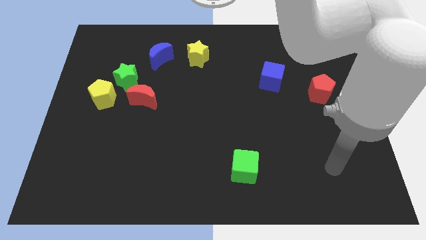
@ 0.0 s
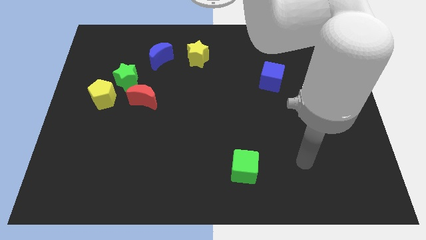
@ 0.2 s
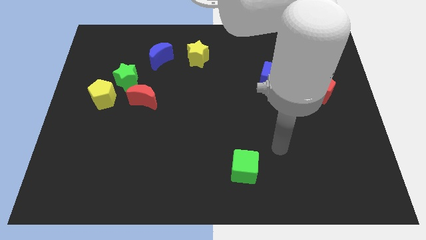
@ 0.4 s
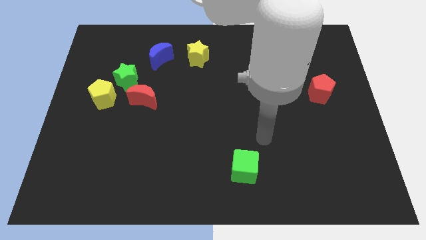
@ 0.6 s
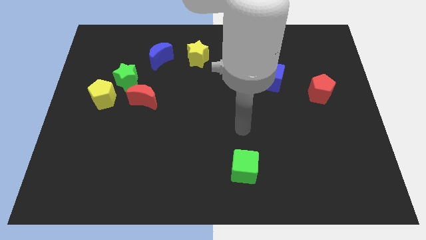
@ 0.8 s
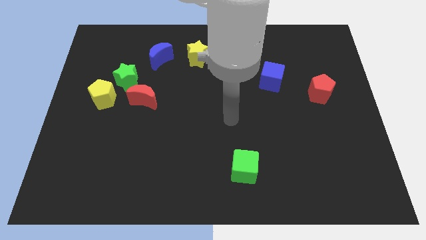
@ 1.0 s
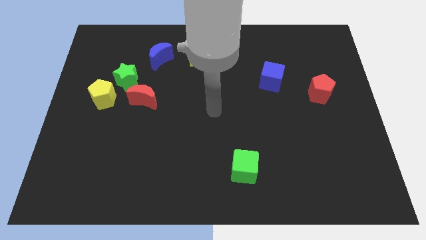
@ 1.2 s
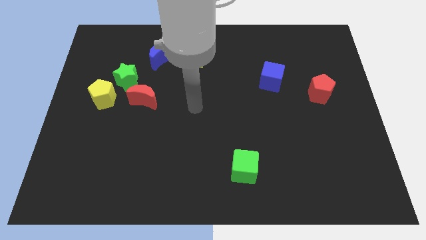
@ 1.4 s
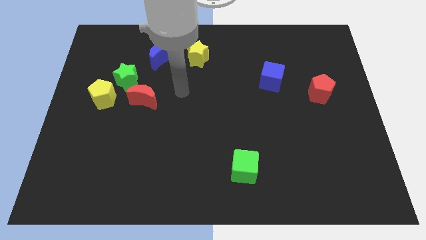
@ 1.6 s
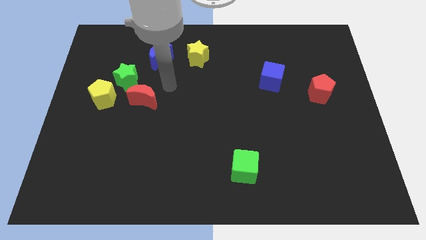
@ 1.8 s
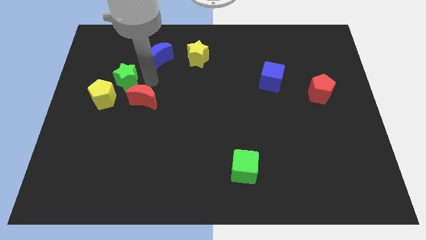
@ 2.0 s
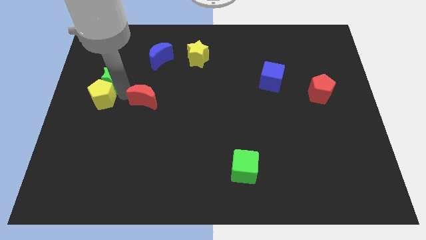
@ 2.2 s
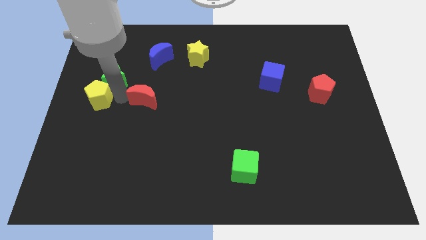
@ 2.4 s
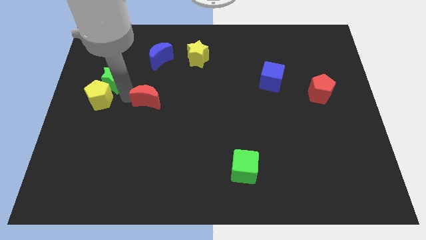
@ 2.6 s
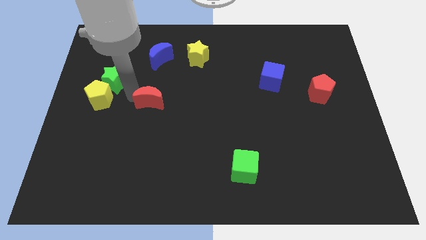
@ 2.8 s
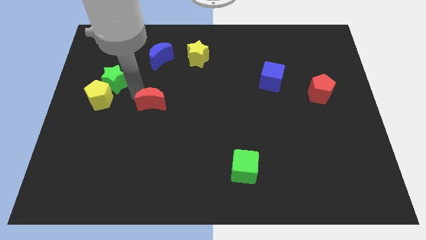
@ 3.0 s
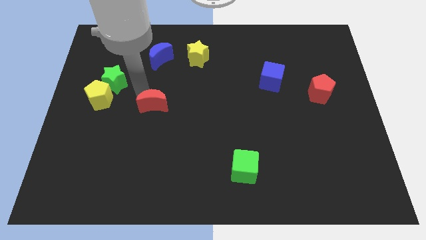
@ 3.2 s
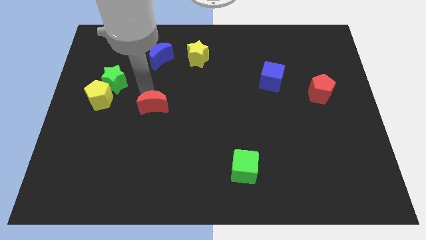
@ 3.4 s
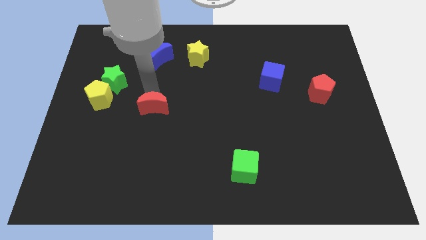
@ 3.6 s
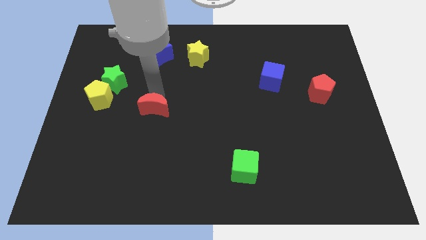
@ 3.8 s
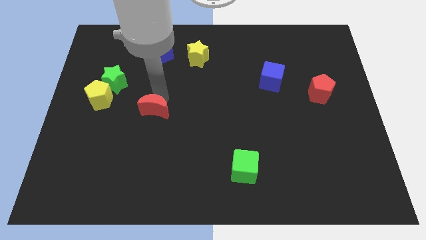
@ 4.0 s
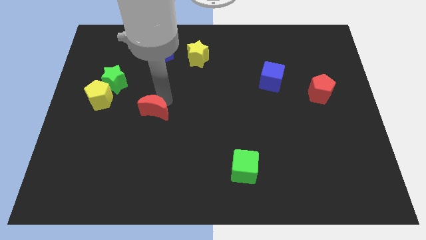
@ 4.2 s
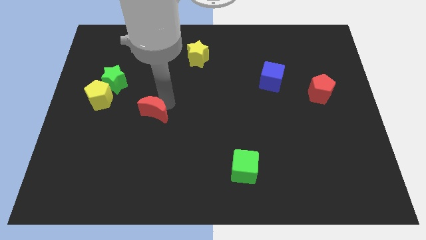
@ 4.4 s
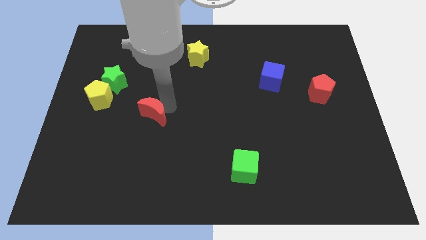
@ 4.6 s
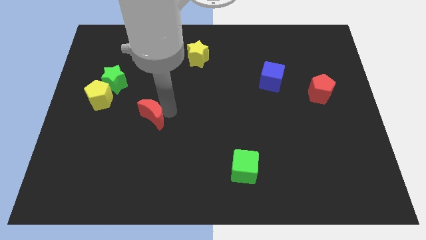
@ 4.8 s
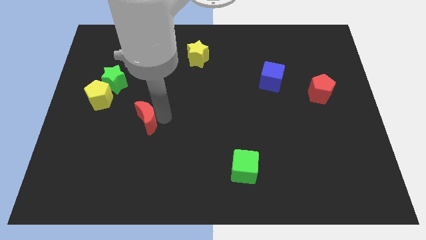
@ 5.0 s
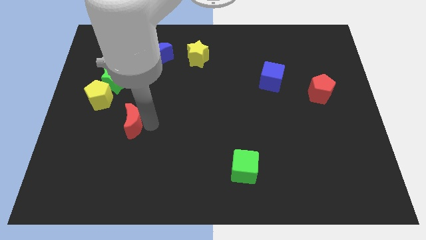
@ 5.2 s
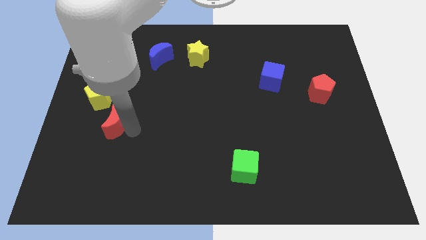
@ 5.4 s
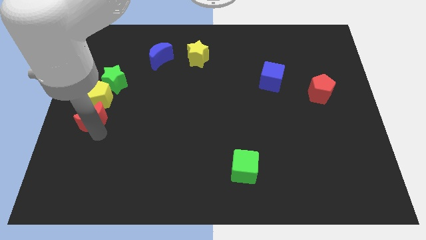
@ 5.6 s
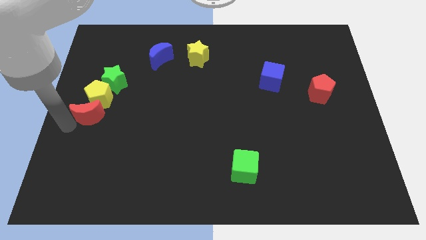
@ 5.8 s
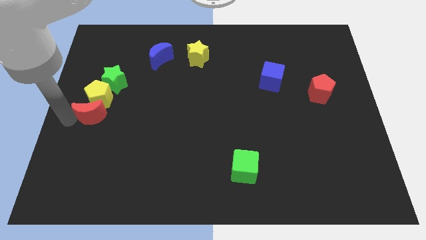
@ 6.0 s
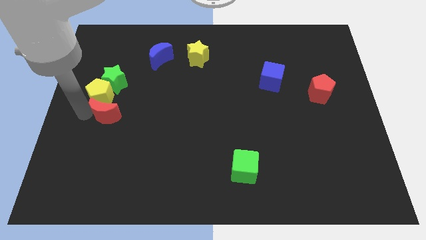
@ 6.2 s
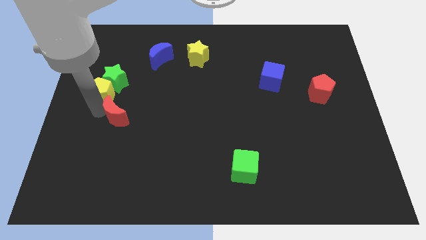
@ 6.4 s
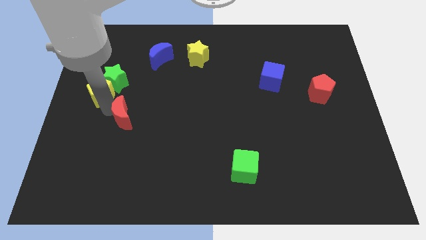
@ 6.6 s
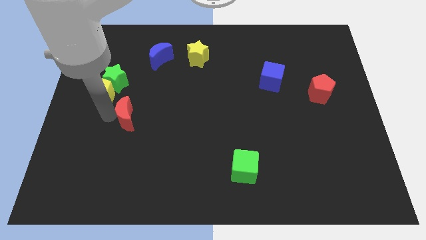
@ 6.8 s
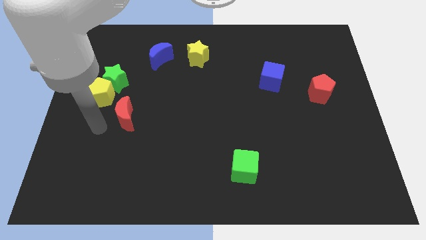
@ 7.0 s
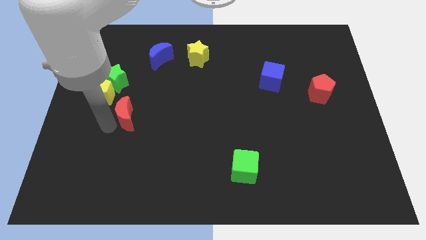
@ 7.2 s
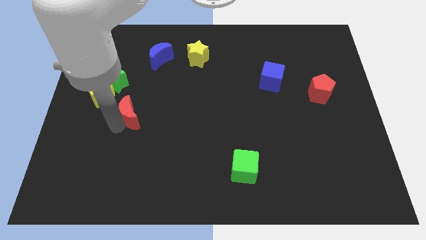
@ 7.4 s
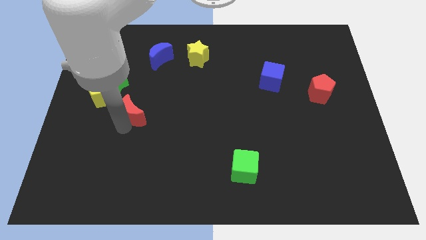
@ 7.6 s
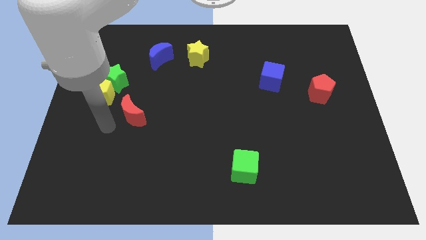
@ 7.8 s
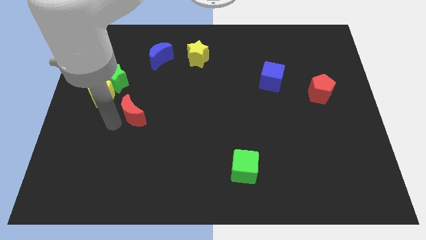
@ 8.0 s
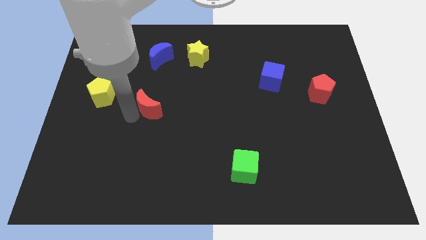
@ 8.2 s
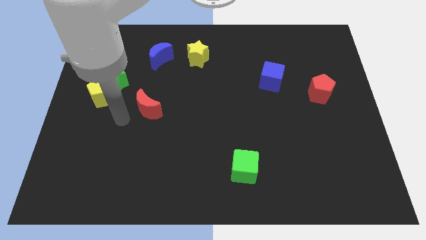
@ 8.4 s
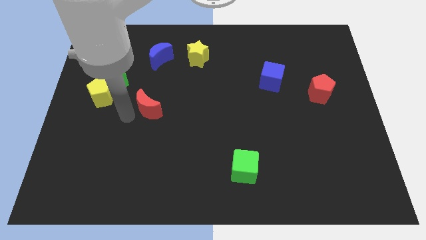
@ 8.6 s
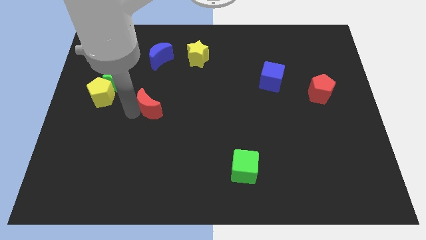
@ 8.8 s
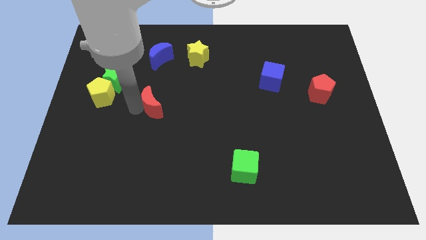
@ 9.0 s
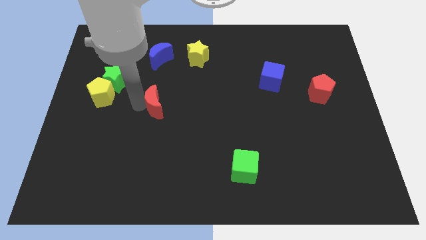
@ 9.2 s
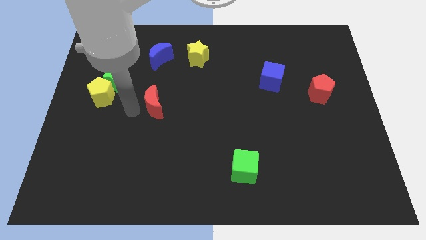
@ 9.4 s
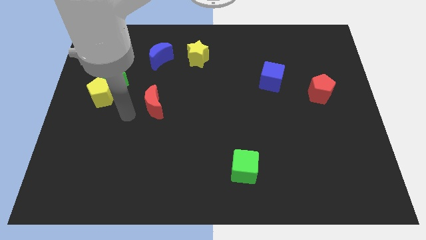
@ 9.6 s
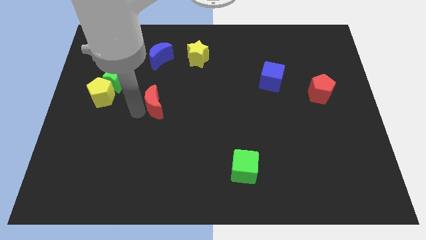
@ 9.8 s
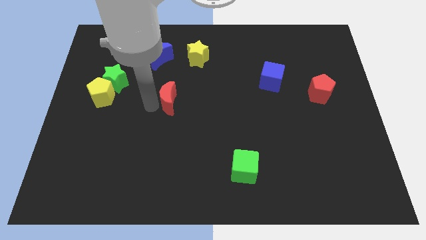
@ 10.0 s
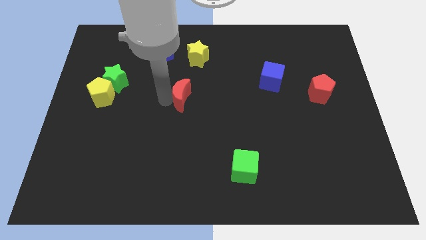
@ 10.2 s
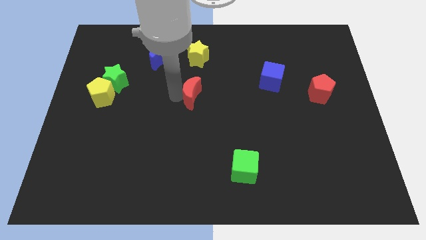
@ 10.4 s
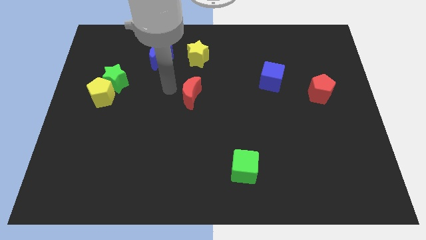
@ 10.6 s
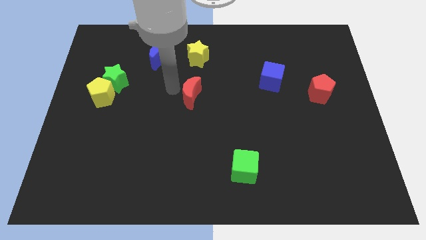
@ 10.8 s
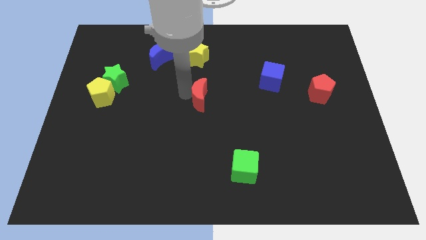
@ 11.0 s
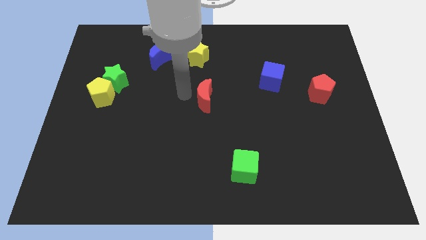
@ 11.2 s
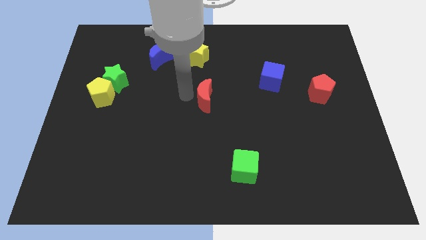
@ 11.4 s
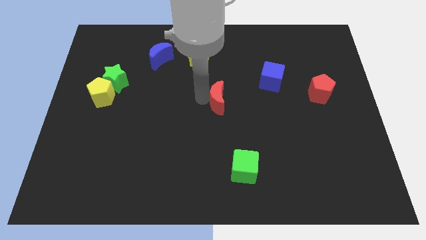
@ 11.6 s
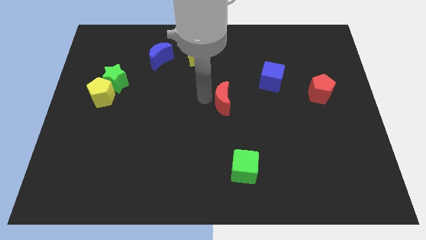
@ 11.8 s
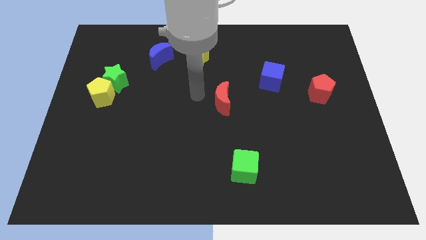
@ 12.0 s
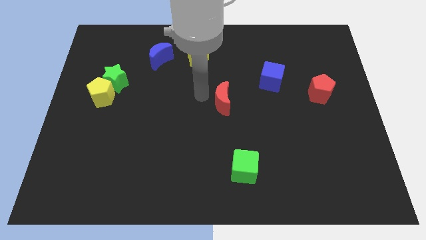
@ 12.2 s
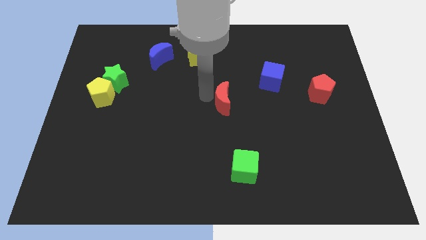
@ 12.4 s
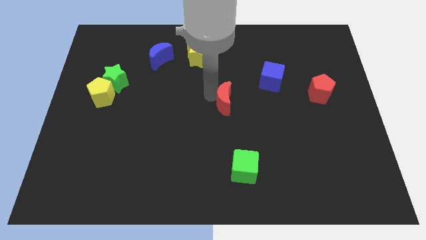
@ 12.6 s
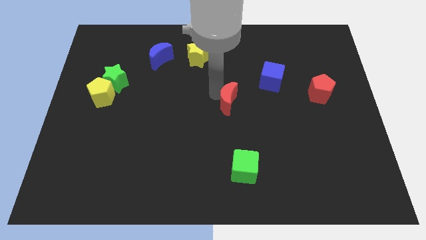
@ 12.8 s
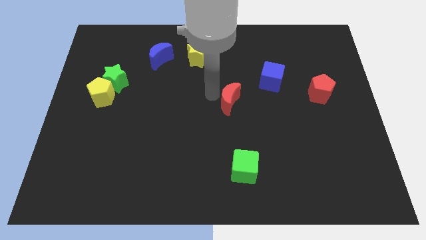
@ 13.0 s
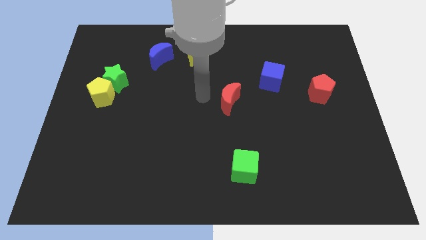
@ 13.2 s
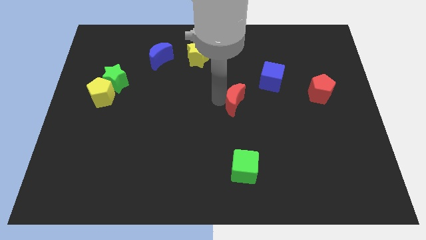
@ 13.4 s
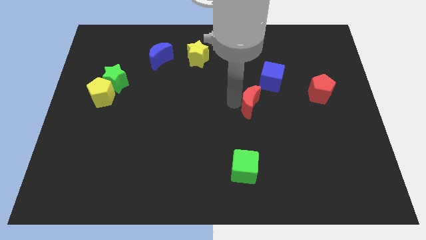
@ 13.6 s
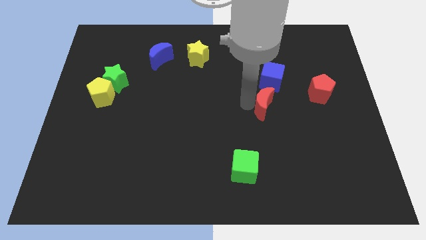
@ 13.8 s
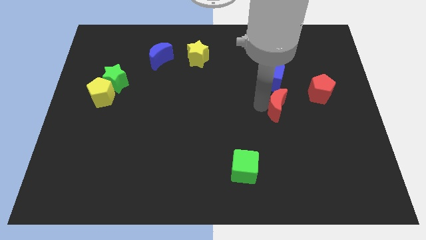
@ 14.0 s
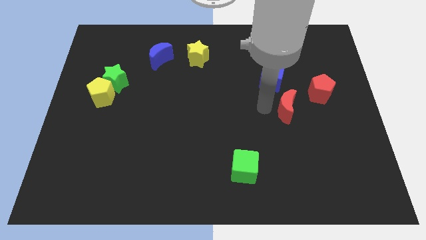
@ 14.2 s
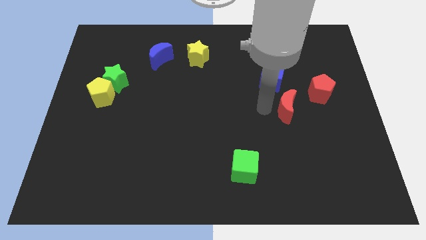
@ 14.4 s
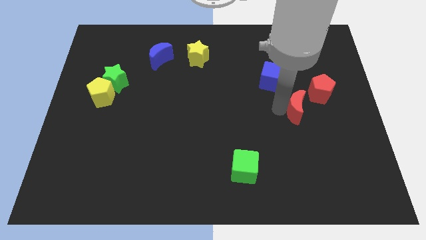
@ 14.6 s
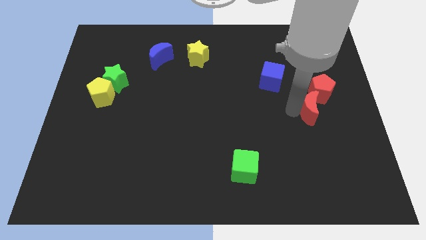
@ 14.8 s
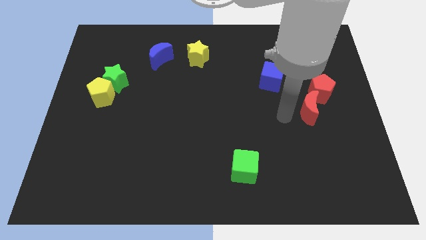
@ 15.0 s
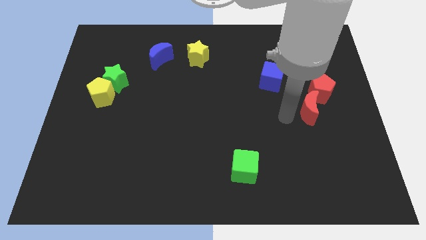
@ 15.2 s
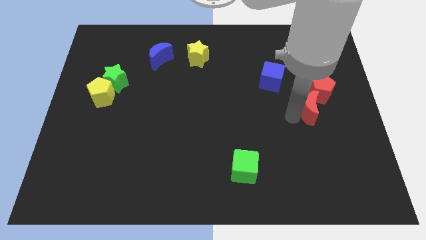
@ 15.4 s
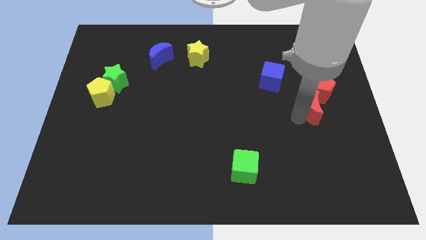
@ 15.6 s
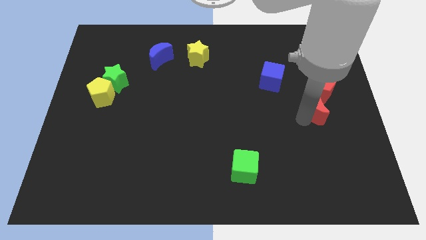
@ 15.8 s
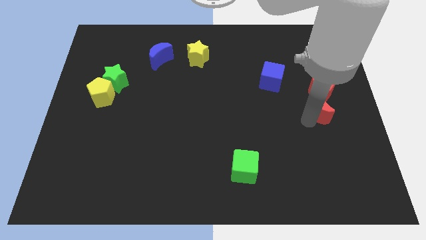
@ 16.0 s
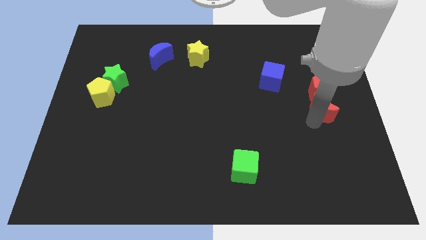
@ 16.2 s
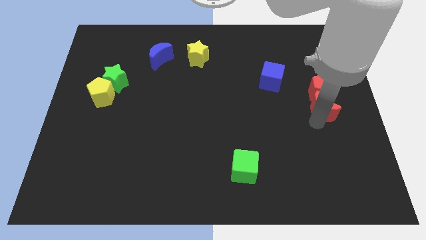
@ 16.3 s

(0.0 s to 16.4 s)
move the red moon to the right side
